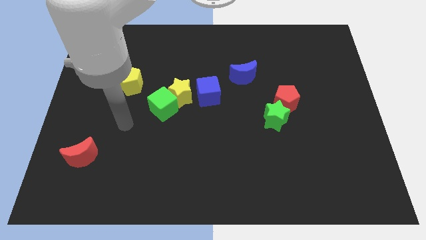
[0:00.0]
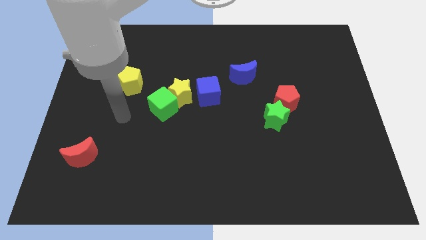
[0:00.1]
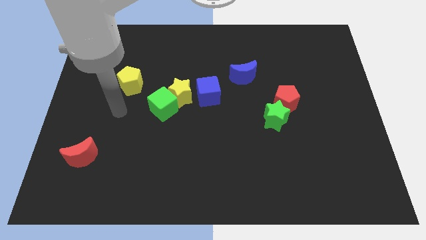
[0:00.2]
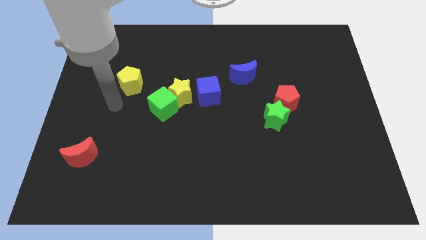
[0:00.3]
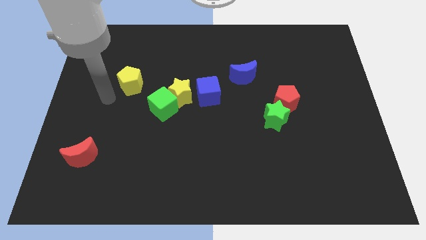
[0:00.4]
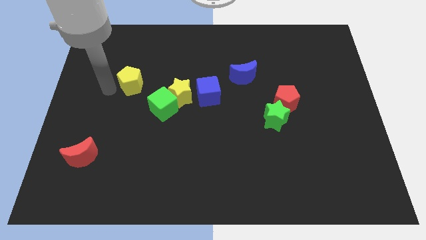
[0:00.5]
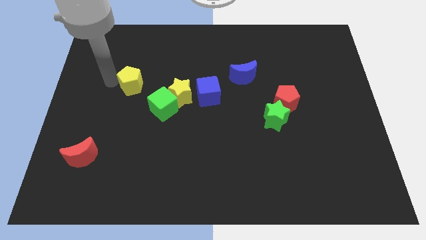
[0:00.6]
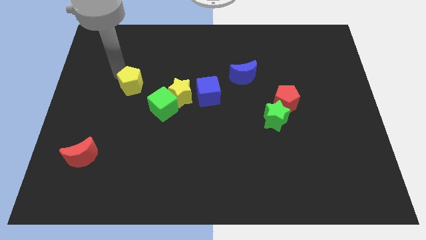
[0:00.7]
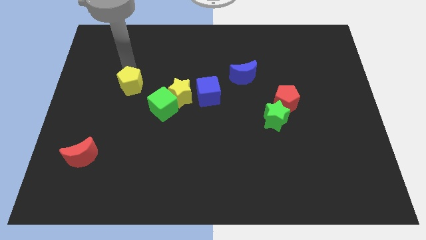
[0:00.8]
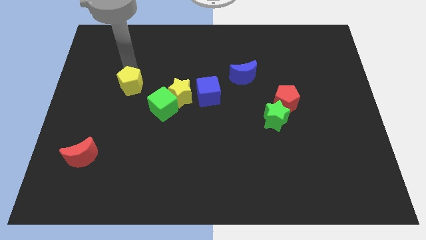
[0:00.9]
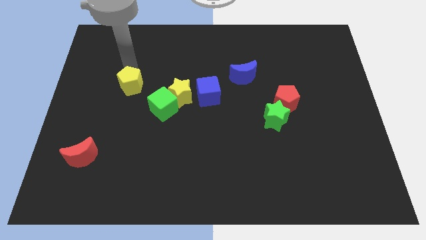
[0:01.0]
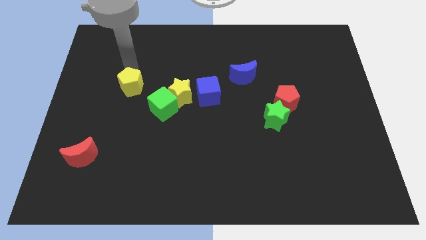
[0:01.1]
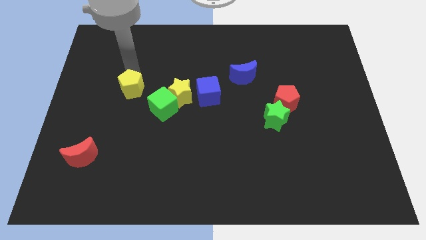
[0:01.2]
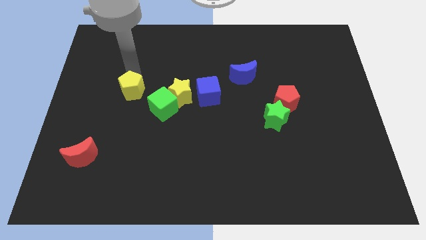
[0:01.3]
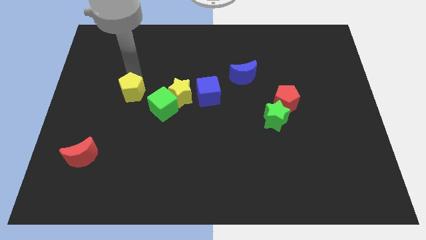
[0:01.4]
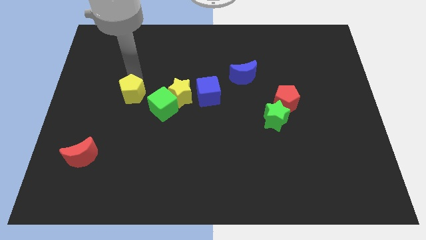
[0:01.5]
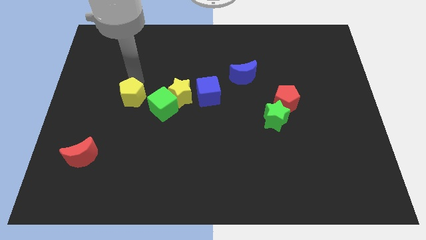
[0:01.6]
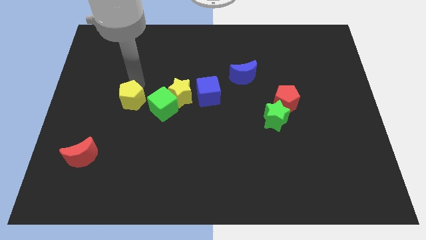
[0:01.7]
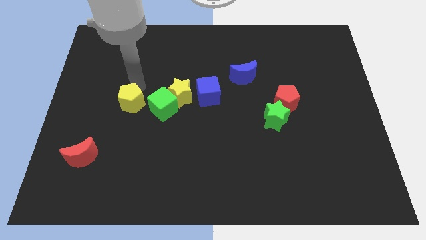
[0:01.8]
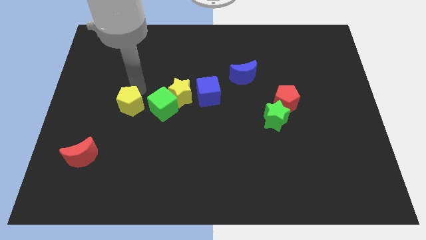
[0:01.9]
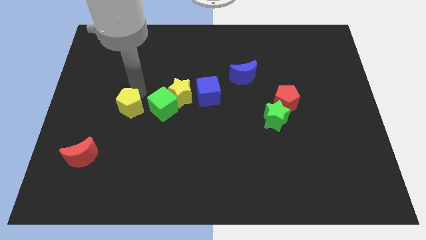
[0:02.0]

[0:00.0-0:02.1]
push the yellow pentagon a little downwards

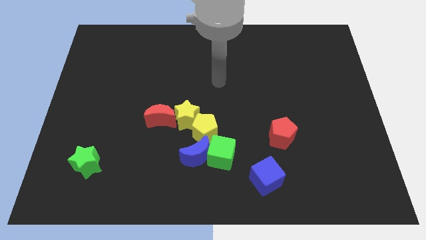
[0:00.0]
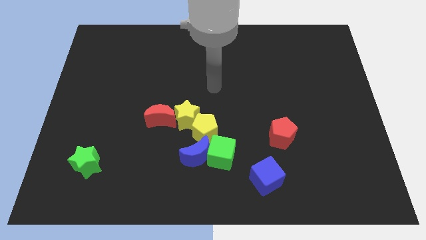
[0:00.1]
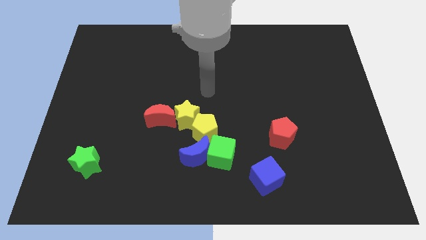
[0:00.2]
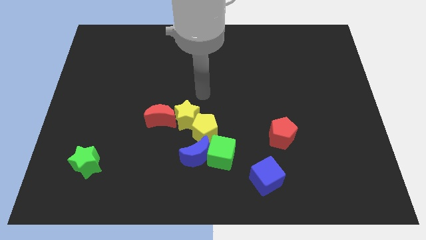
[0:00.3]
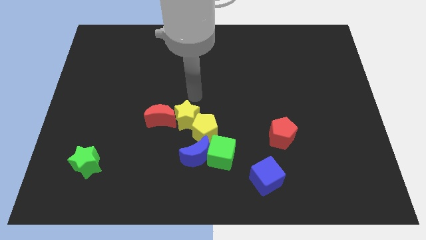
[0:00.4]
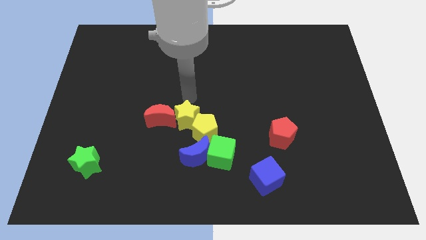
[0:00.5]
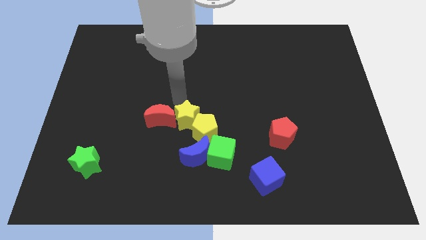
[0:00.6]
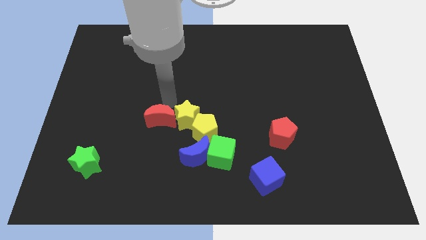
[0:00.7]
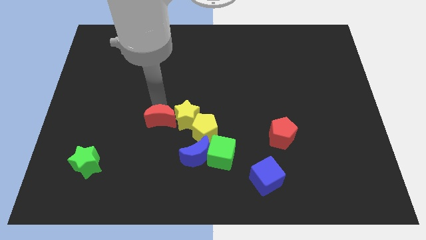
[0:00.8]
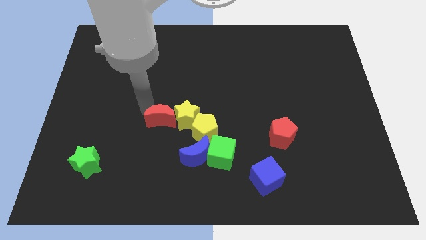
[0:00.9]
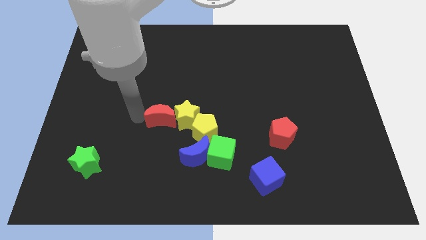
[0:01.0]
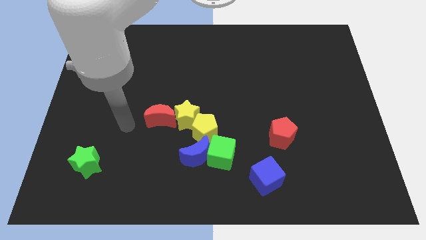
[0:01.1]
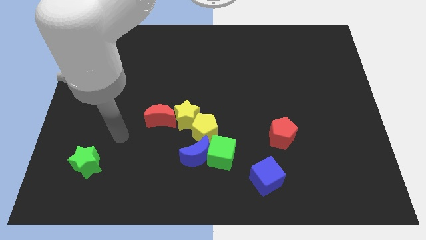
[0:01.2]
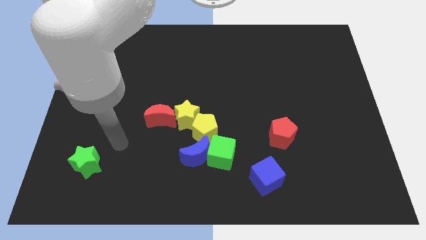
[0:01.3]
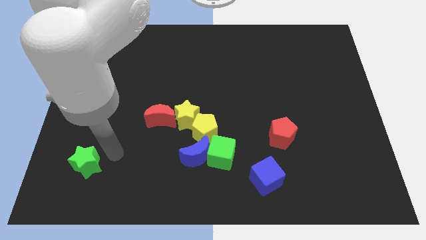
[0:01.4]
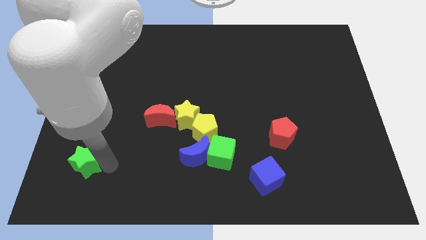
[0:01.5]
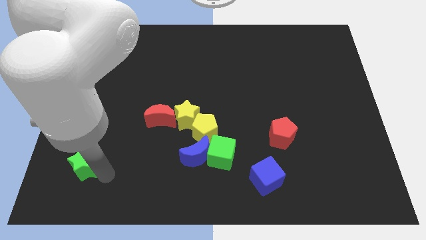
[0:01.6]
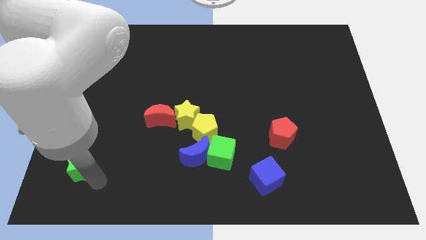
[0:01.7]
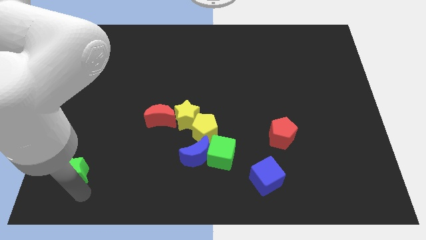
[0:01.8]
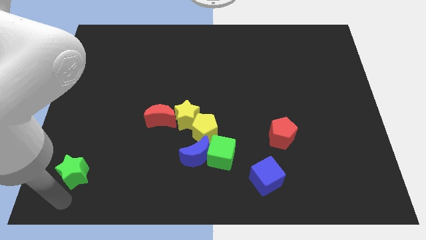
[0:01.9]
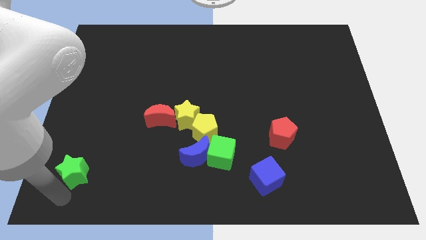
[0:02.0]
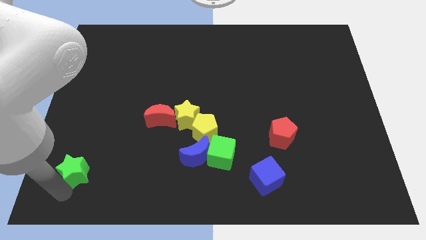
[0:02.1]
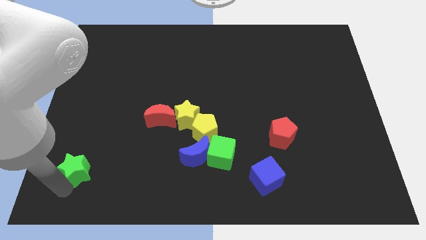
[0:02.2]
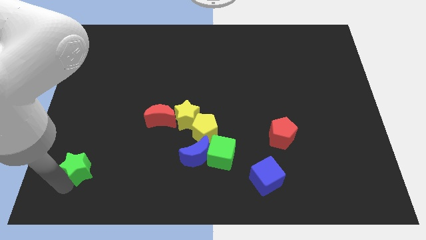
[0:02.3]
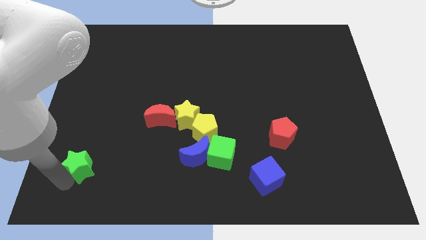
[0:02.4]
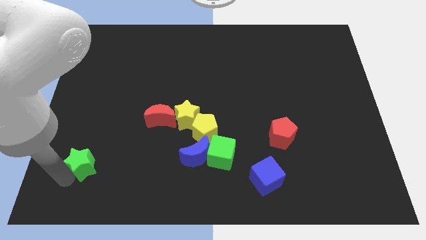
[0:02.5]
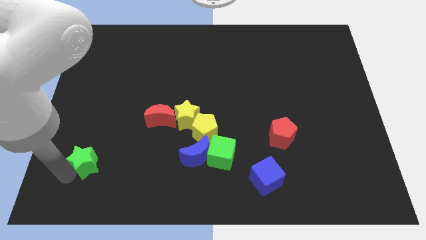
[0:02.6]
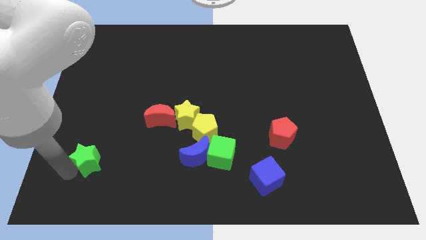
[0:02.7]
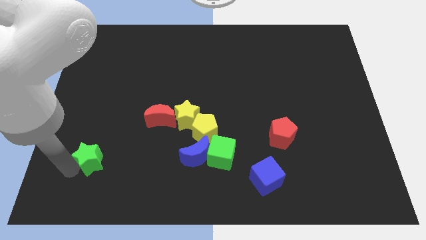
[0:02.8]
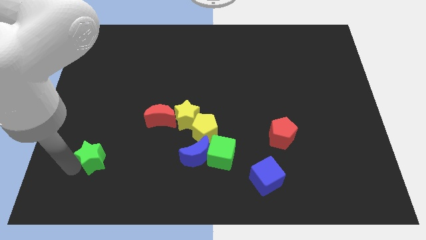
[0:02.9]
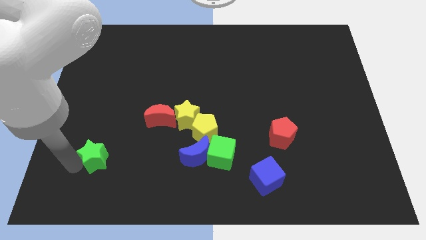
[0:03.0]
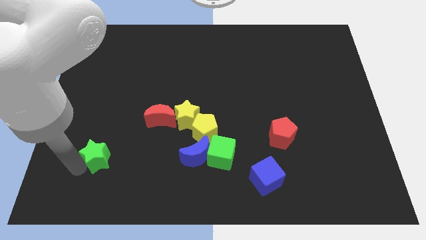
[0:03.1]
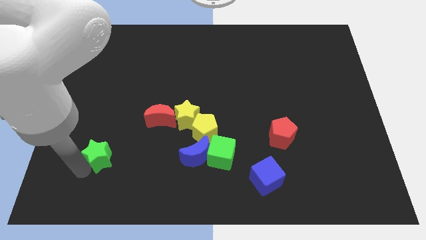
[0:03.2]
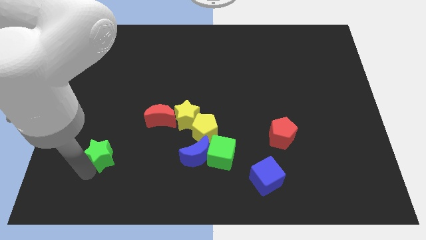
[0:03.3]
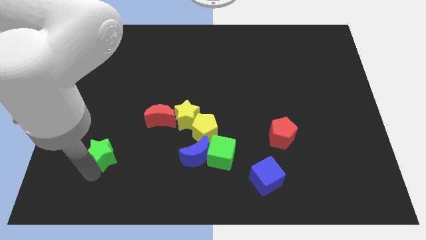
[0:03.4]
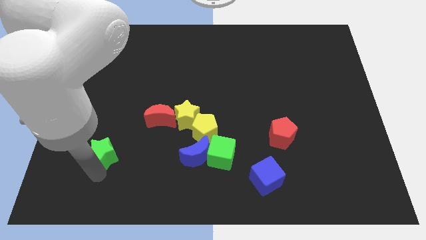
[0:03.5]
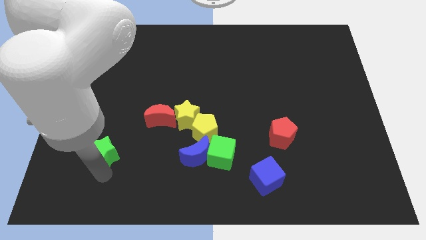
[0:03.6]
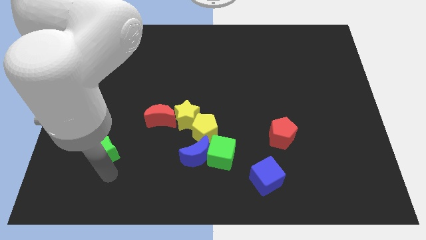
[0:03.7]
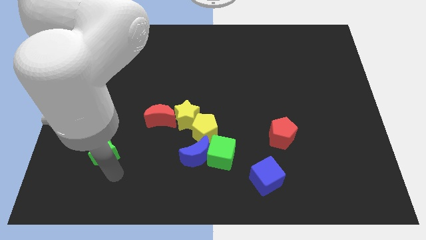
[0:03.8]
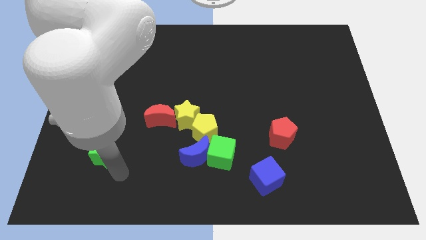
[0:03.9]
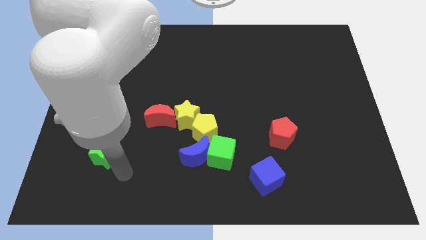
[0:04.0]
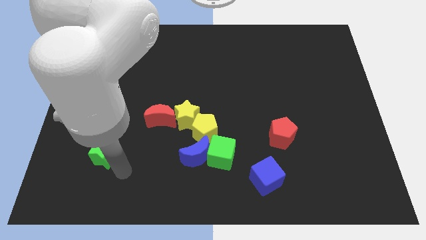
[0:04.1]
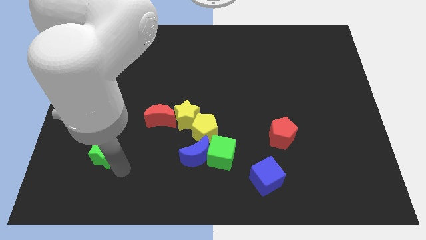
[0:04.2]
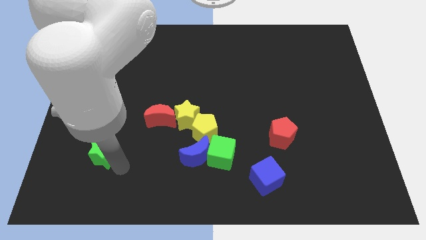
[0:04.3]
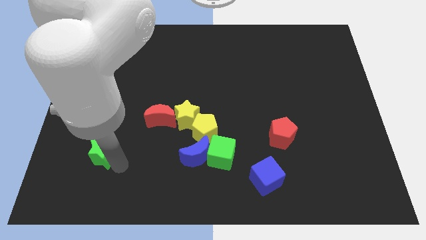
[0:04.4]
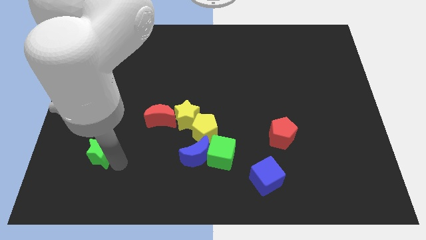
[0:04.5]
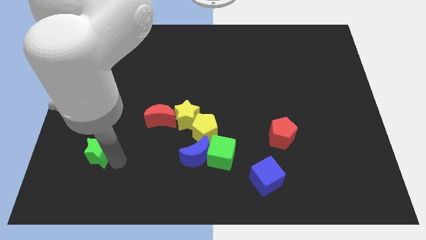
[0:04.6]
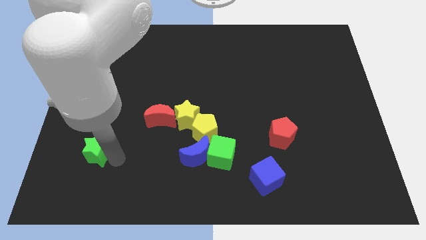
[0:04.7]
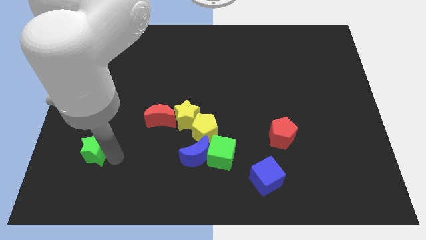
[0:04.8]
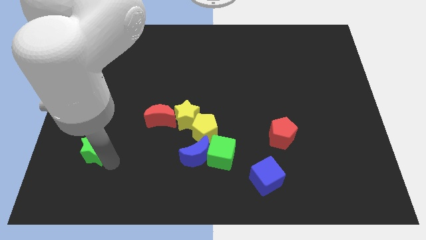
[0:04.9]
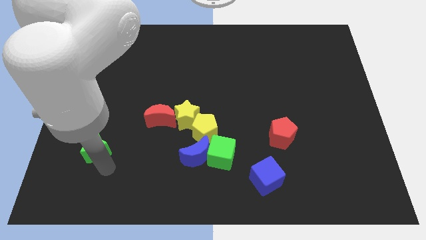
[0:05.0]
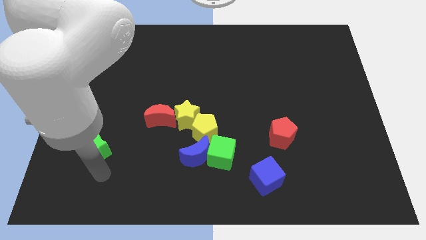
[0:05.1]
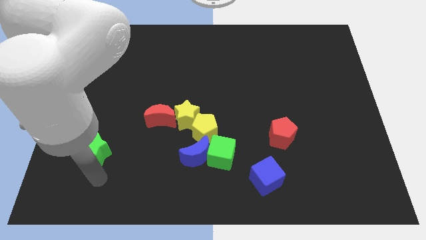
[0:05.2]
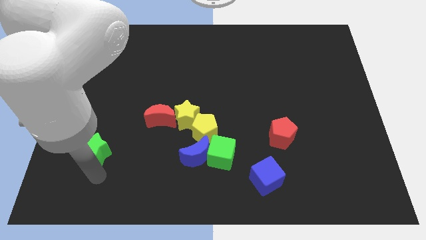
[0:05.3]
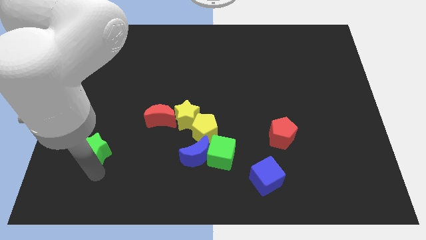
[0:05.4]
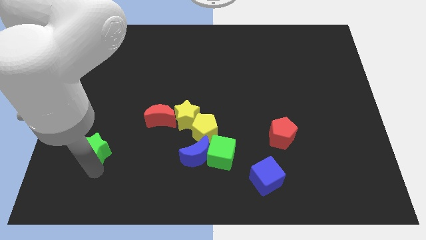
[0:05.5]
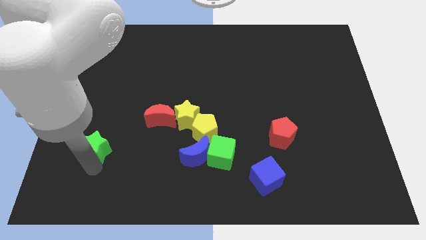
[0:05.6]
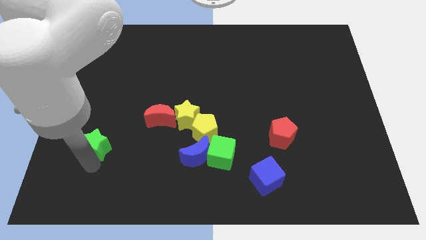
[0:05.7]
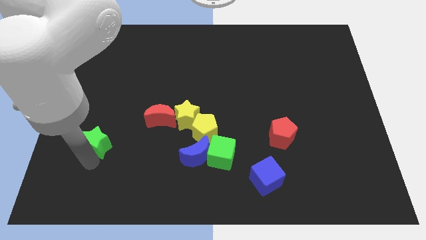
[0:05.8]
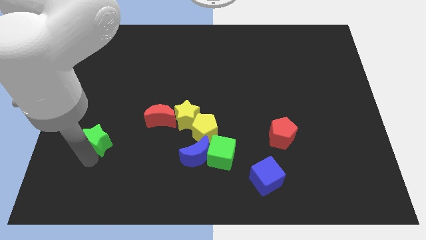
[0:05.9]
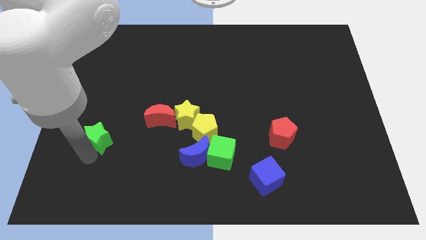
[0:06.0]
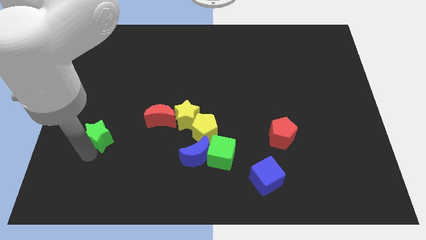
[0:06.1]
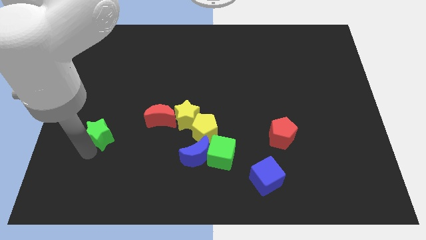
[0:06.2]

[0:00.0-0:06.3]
move the green star upwards a bit
